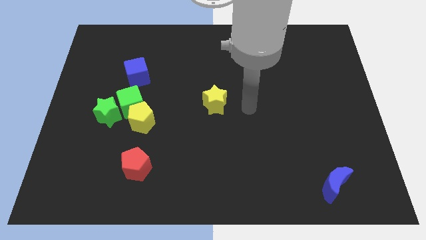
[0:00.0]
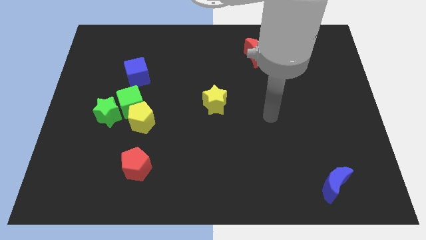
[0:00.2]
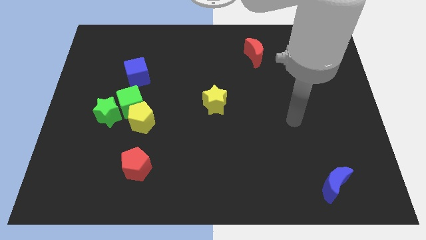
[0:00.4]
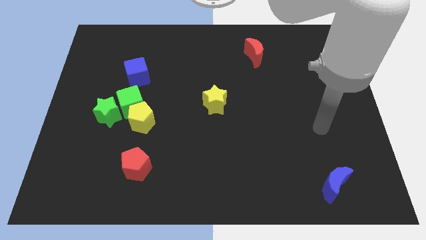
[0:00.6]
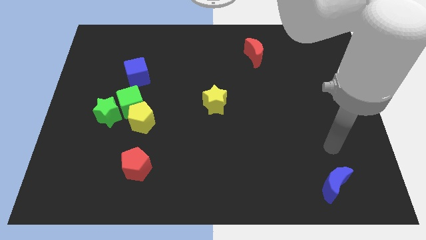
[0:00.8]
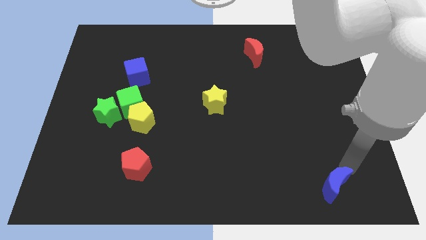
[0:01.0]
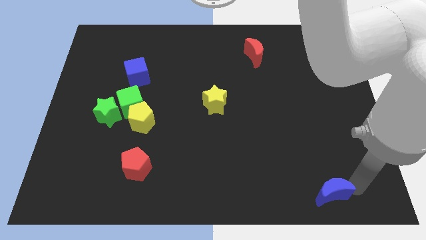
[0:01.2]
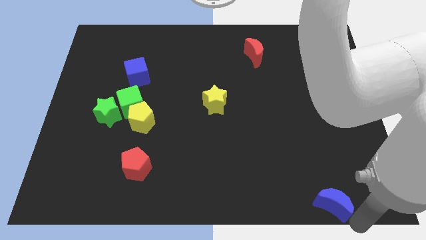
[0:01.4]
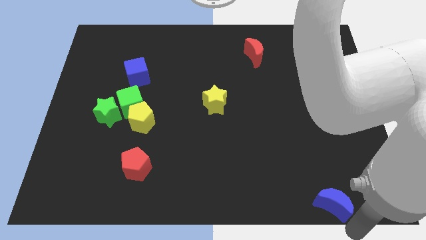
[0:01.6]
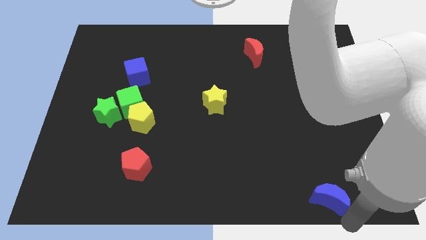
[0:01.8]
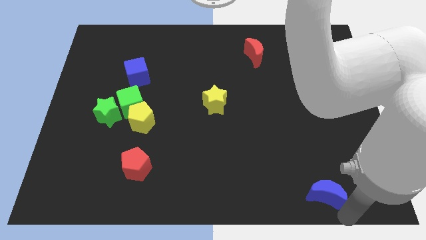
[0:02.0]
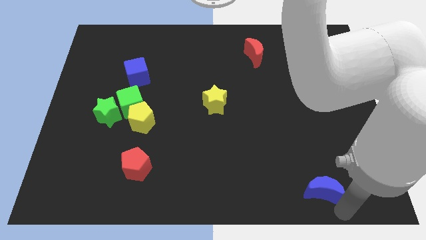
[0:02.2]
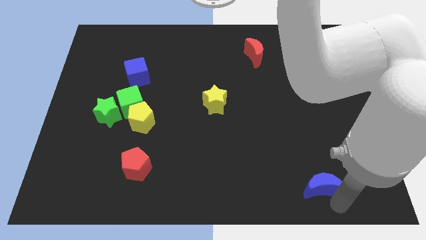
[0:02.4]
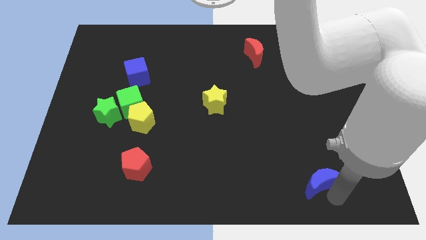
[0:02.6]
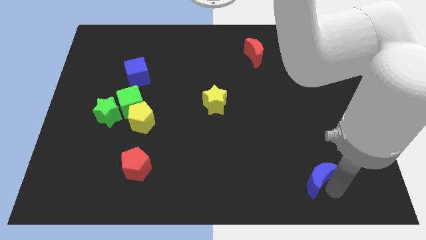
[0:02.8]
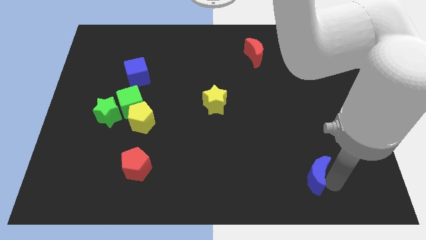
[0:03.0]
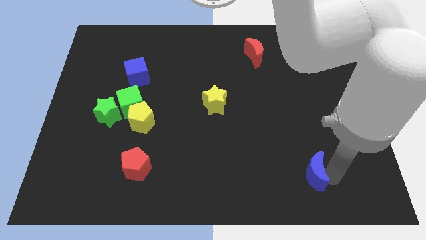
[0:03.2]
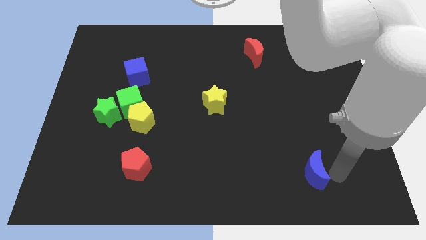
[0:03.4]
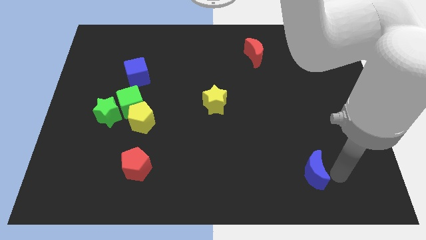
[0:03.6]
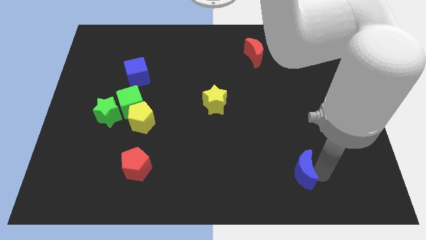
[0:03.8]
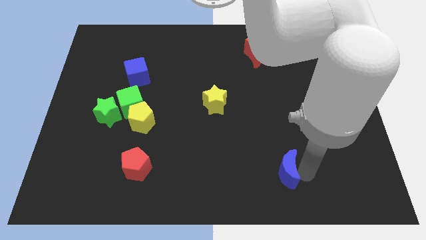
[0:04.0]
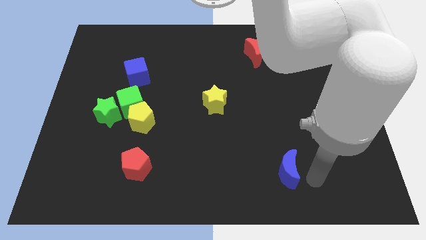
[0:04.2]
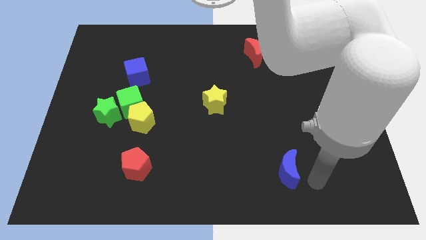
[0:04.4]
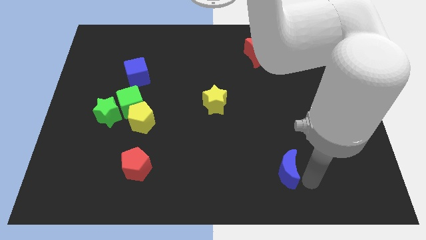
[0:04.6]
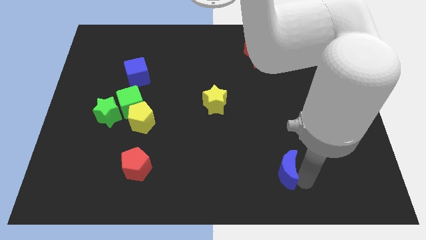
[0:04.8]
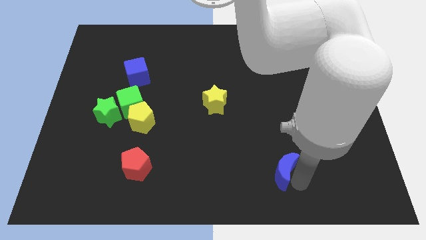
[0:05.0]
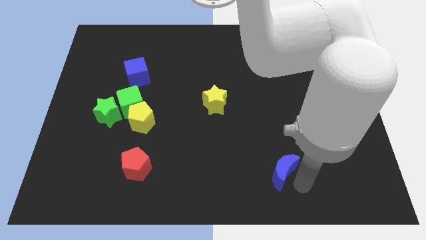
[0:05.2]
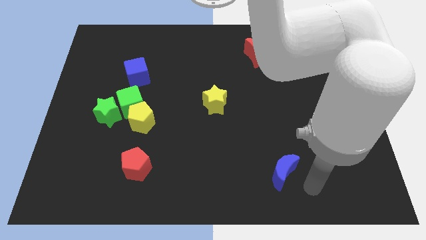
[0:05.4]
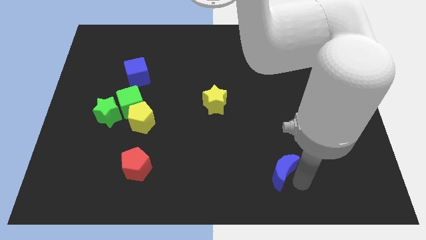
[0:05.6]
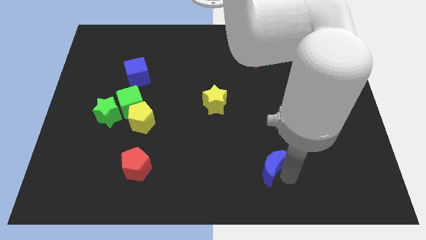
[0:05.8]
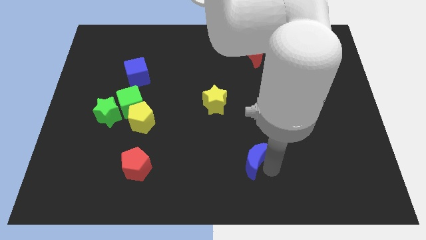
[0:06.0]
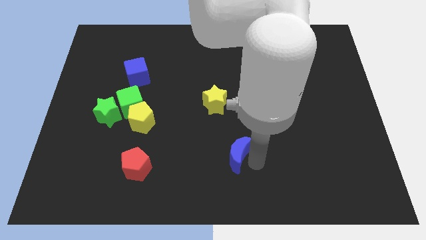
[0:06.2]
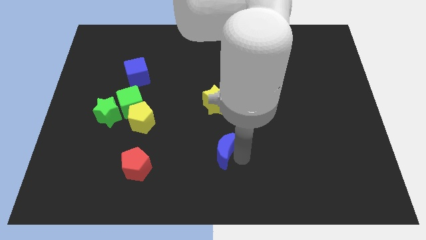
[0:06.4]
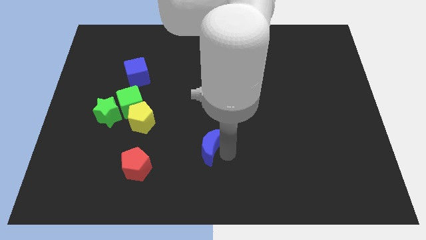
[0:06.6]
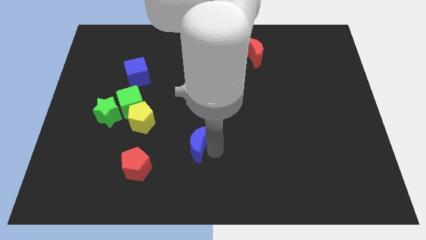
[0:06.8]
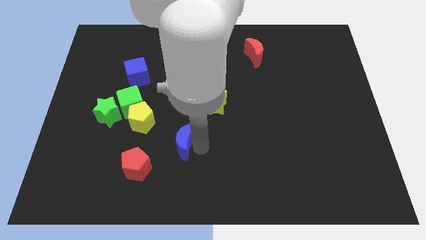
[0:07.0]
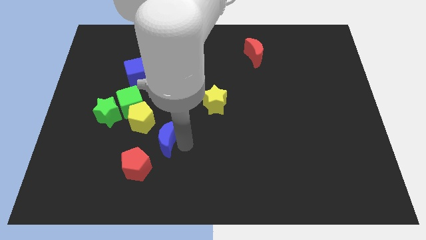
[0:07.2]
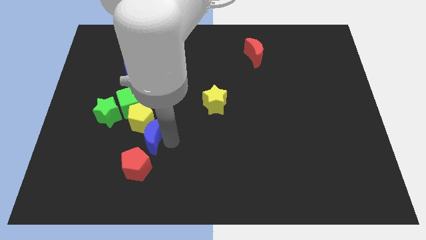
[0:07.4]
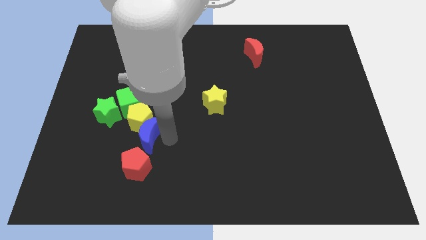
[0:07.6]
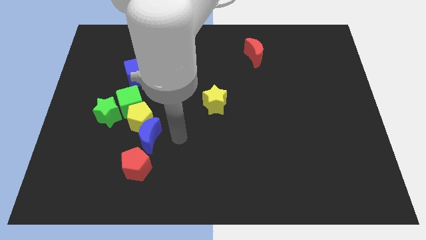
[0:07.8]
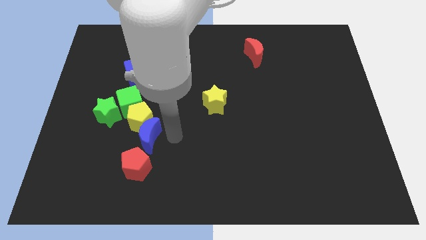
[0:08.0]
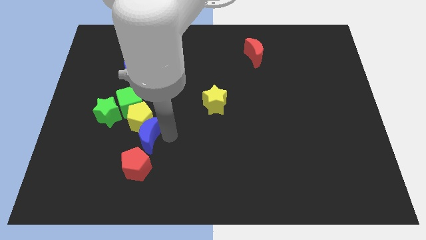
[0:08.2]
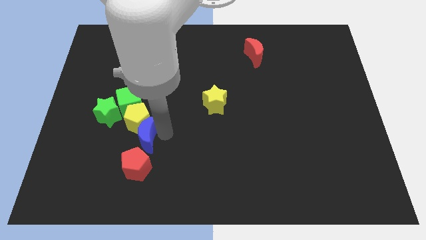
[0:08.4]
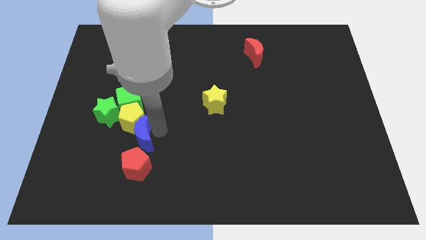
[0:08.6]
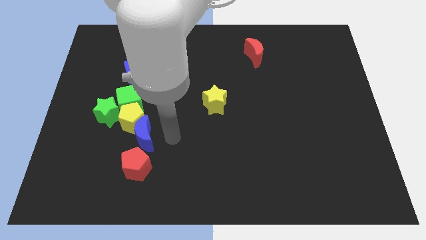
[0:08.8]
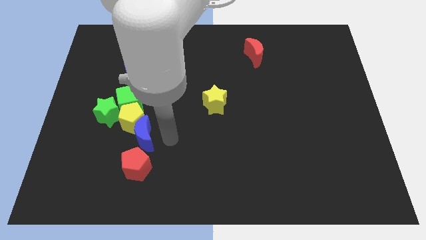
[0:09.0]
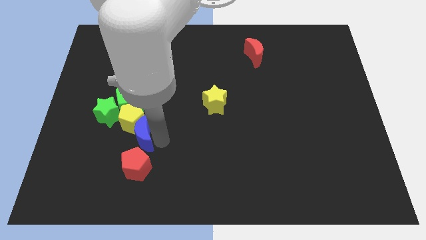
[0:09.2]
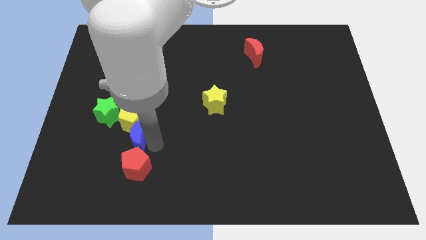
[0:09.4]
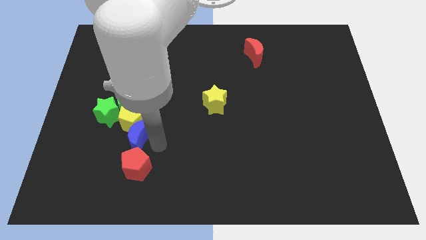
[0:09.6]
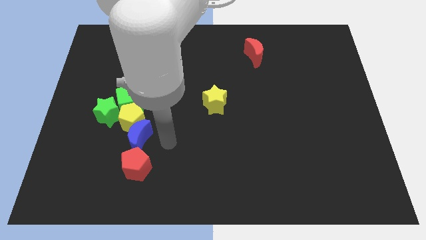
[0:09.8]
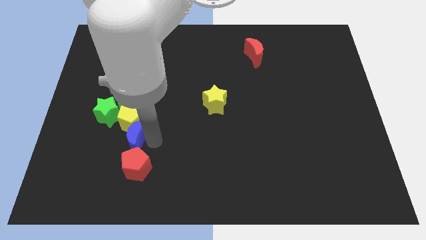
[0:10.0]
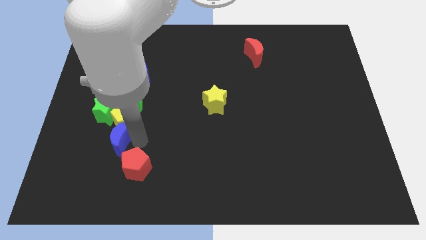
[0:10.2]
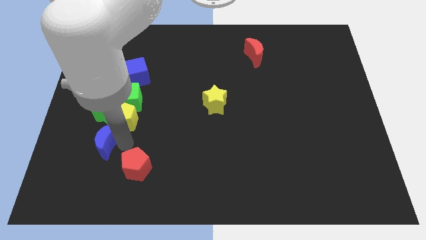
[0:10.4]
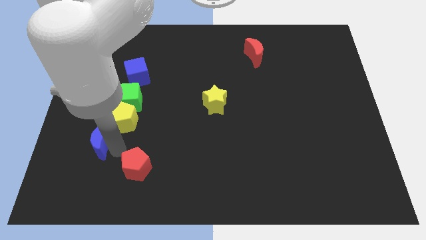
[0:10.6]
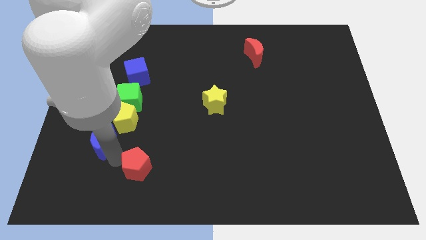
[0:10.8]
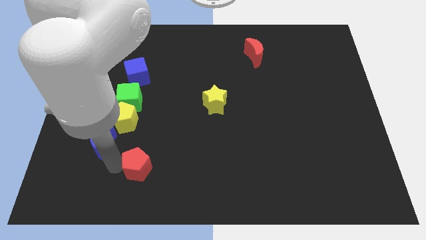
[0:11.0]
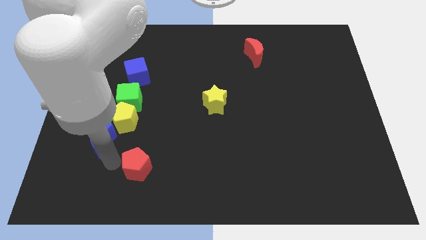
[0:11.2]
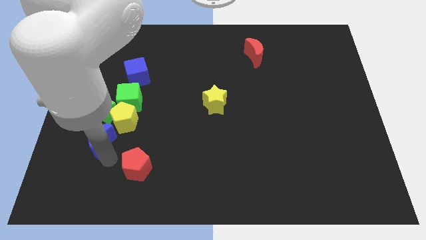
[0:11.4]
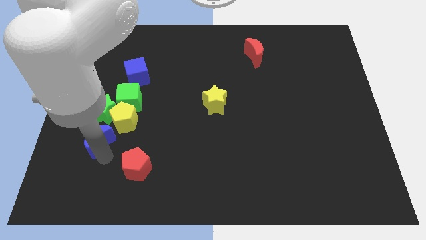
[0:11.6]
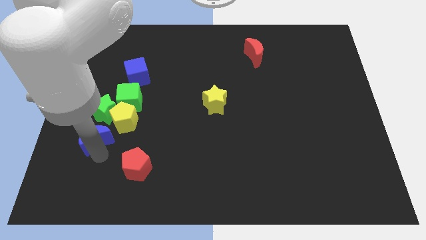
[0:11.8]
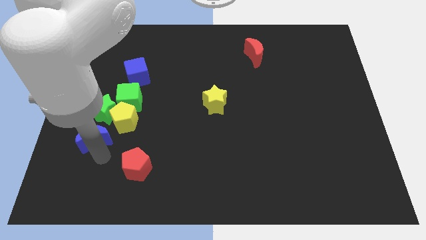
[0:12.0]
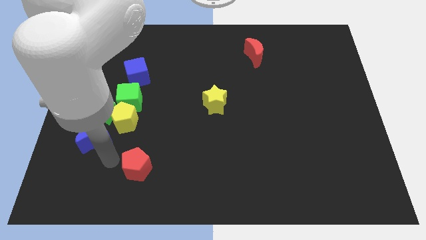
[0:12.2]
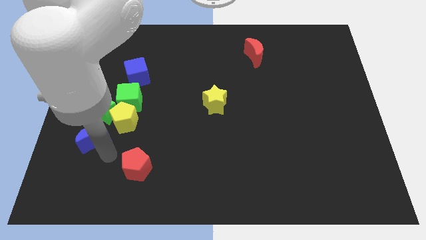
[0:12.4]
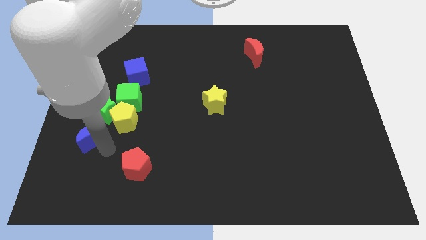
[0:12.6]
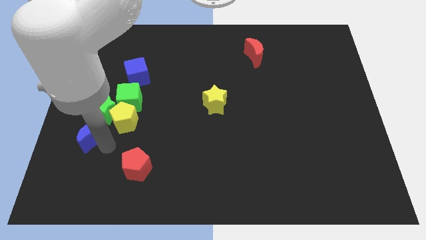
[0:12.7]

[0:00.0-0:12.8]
move the blue moon left of the yellow pentagon

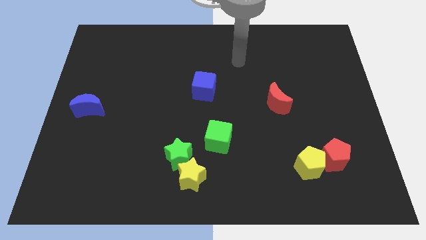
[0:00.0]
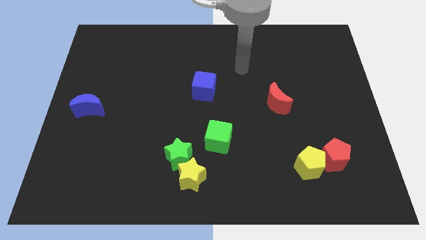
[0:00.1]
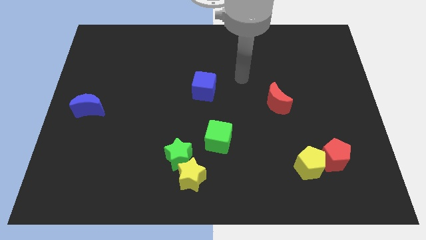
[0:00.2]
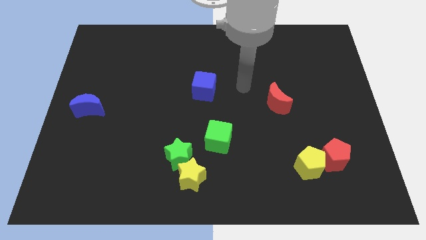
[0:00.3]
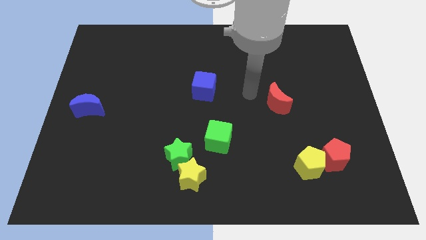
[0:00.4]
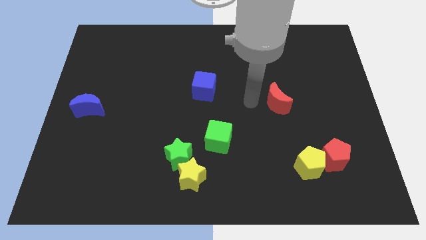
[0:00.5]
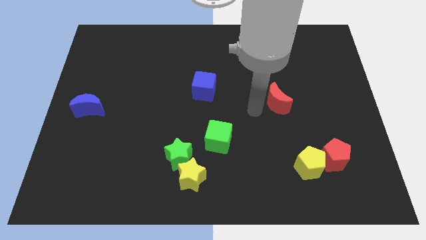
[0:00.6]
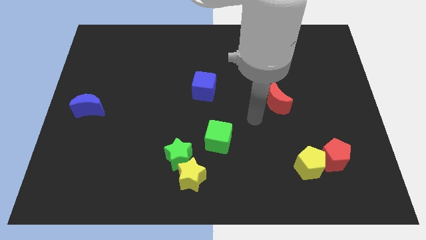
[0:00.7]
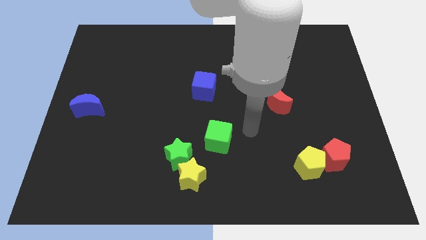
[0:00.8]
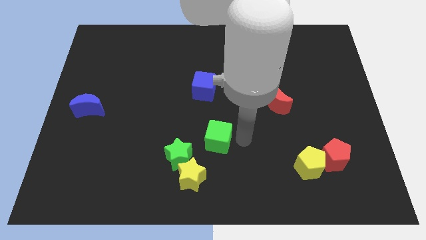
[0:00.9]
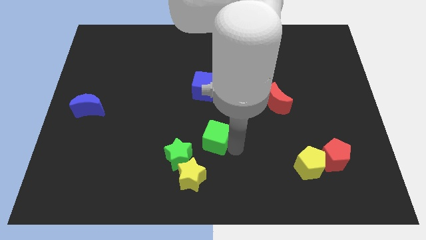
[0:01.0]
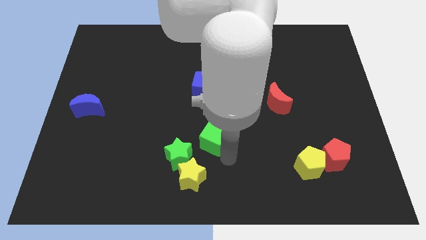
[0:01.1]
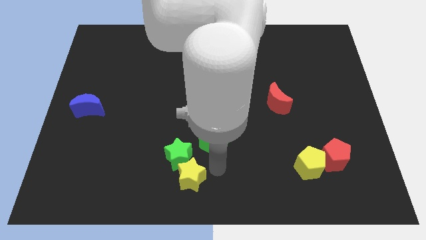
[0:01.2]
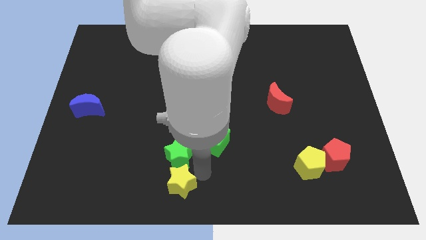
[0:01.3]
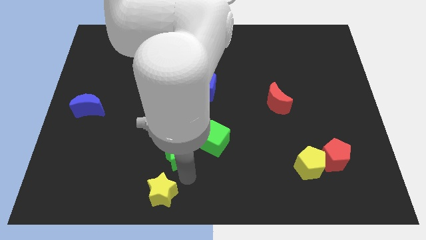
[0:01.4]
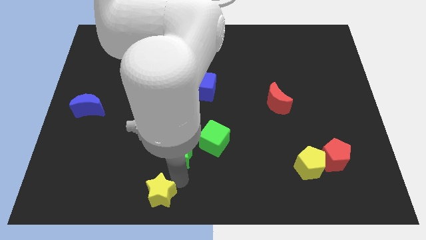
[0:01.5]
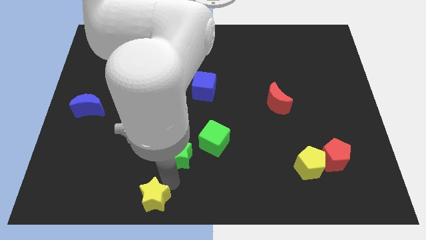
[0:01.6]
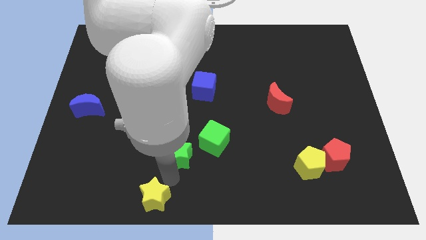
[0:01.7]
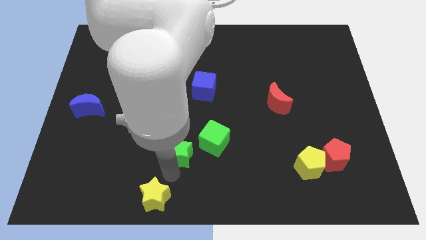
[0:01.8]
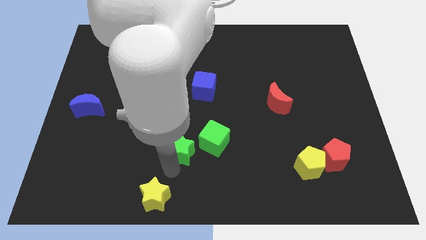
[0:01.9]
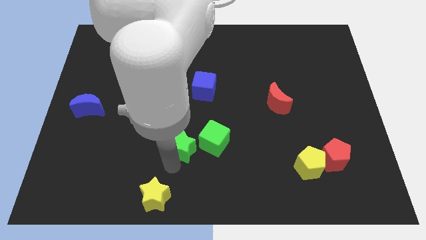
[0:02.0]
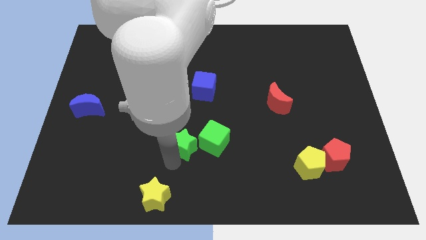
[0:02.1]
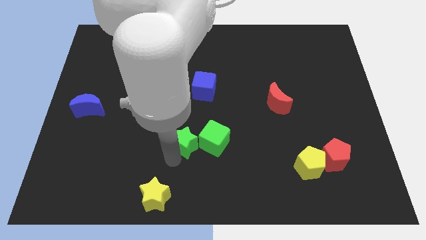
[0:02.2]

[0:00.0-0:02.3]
put the green star to the top left of the green cube
